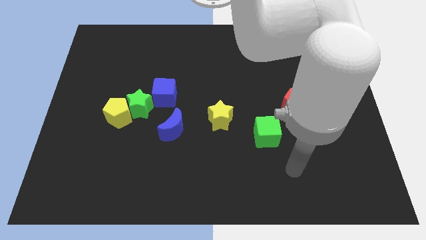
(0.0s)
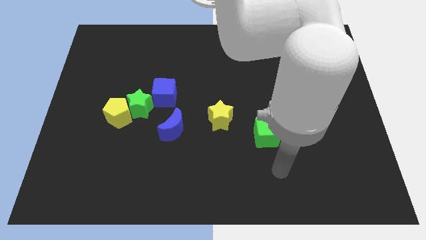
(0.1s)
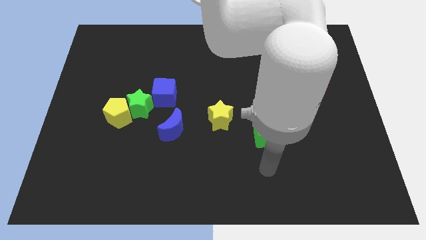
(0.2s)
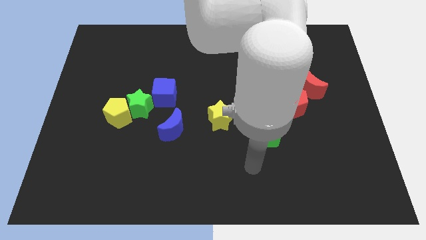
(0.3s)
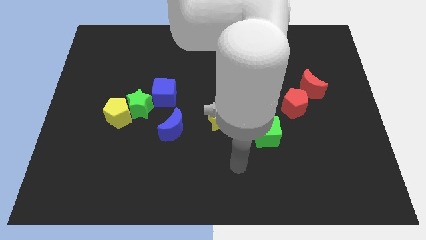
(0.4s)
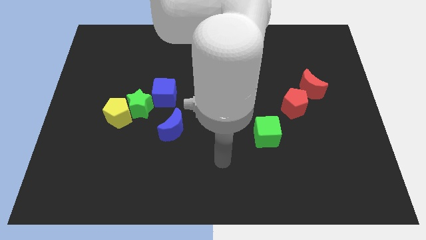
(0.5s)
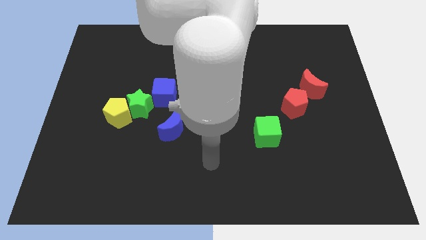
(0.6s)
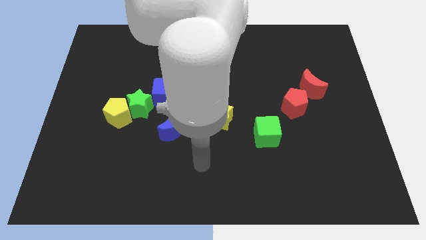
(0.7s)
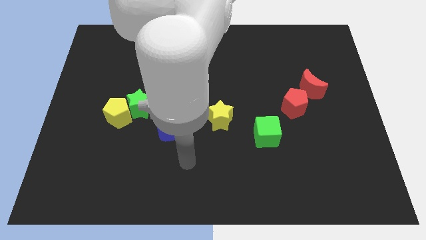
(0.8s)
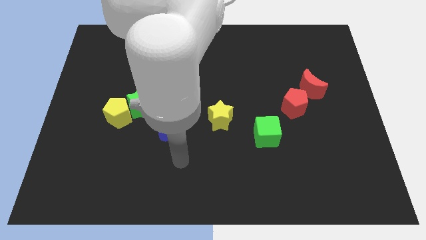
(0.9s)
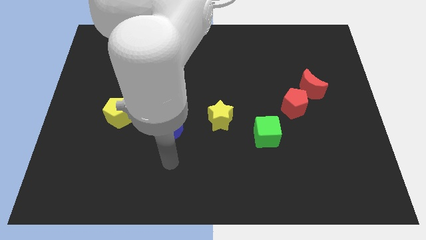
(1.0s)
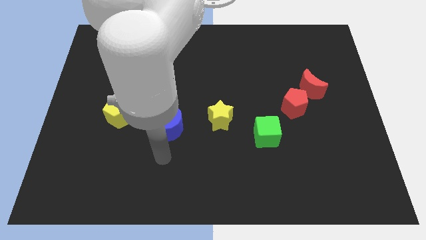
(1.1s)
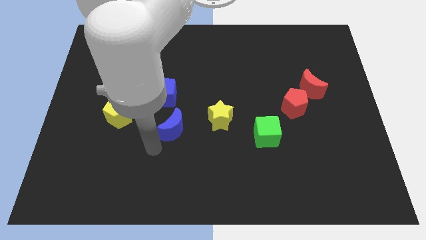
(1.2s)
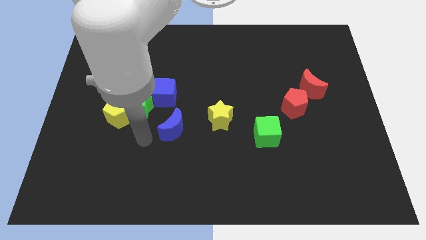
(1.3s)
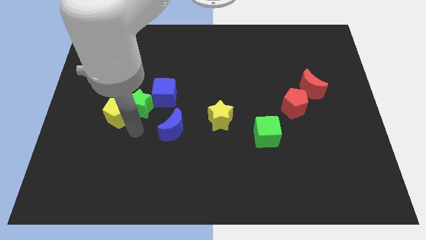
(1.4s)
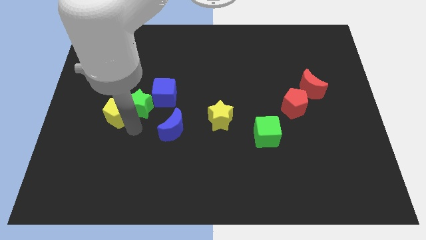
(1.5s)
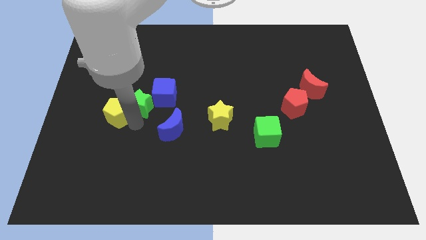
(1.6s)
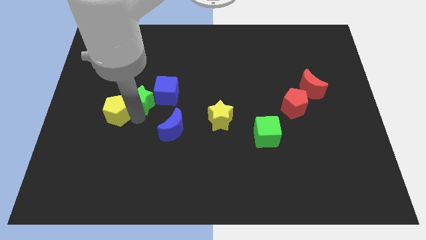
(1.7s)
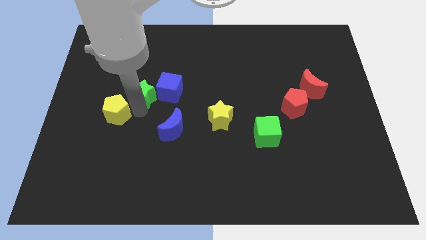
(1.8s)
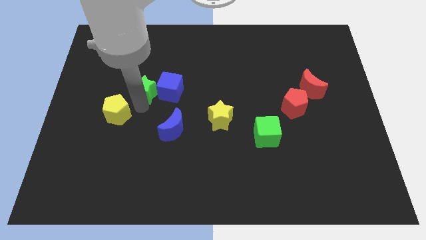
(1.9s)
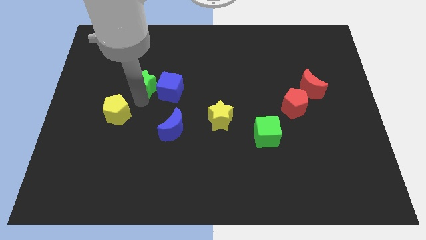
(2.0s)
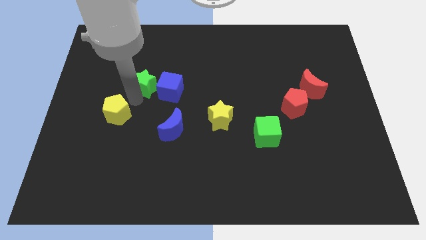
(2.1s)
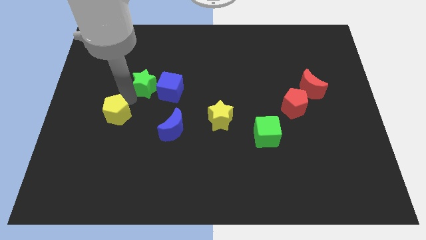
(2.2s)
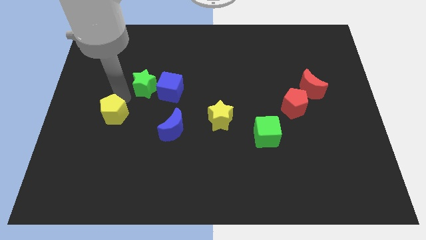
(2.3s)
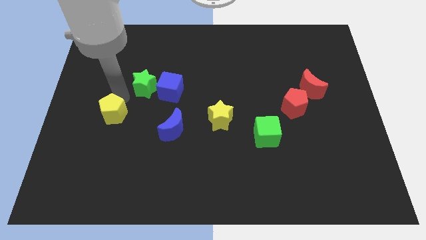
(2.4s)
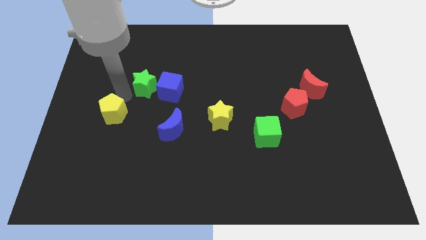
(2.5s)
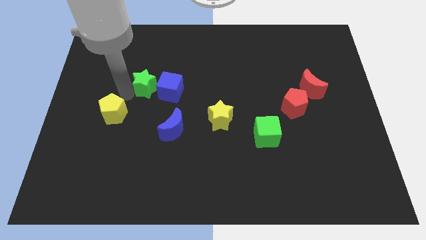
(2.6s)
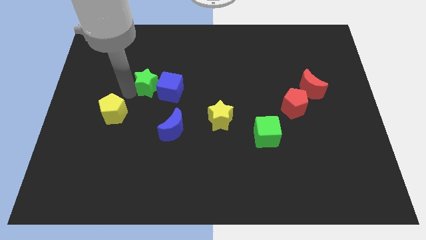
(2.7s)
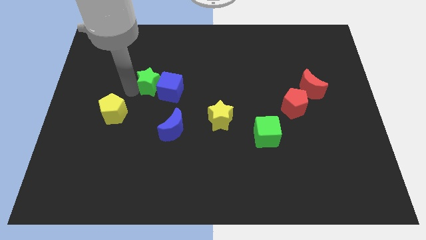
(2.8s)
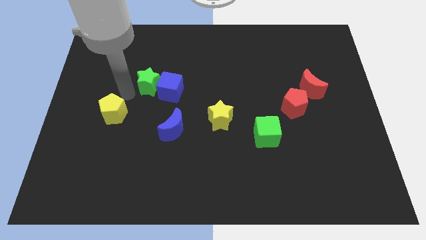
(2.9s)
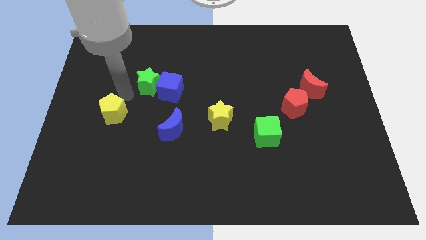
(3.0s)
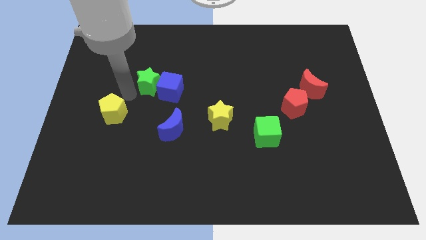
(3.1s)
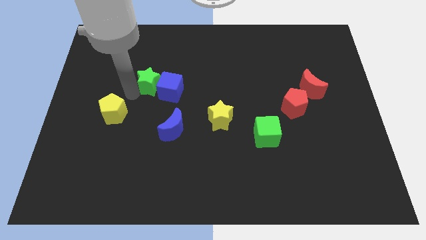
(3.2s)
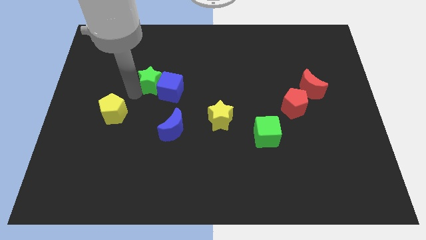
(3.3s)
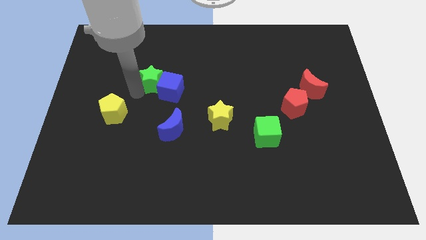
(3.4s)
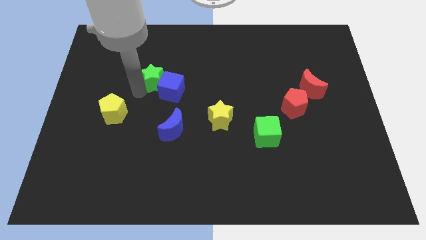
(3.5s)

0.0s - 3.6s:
slide the green star a little up and to the right diagonally

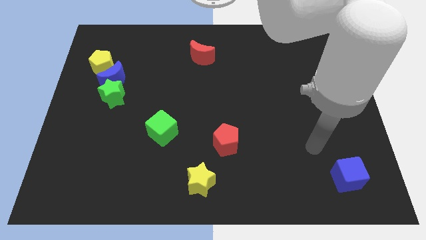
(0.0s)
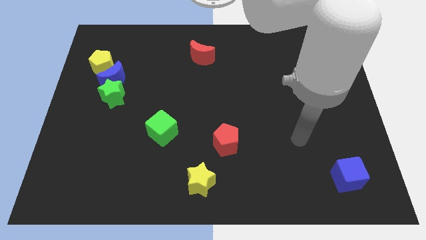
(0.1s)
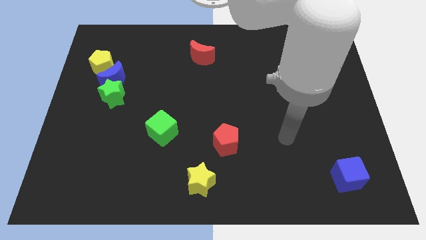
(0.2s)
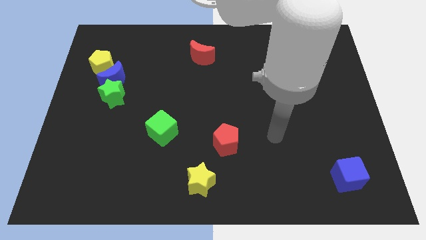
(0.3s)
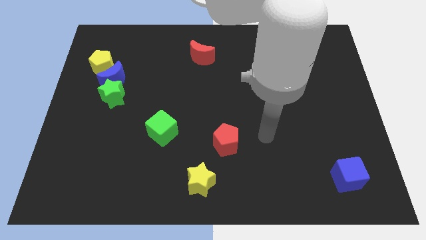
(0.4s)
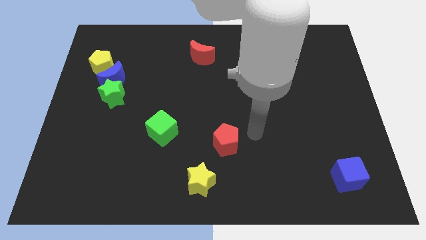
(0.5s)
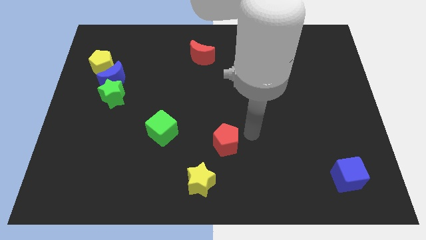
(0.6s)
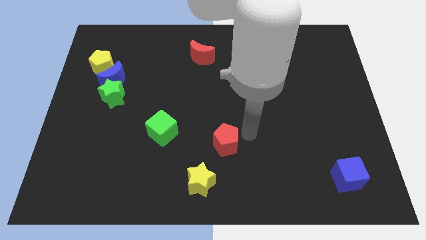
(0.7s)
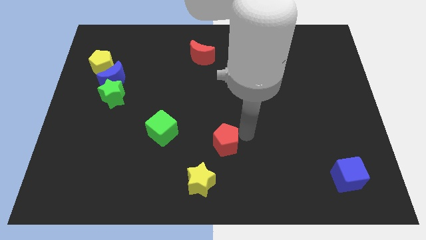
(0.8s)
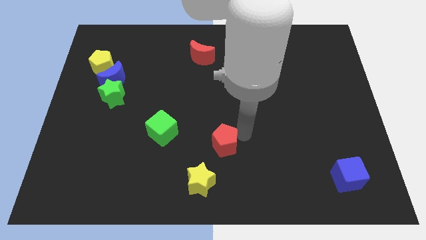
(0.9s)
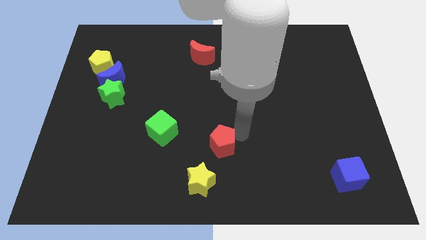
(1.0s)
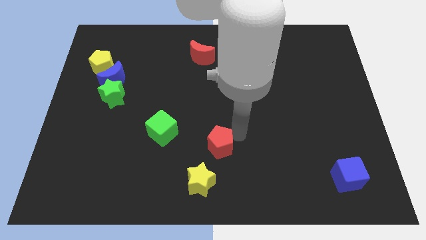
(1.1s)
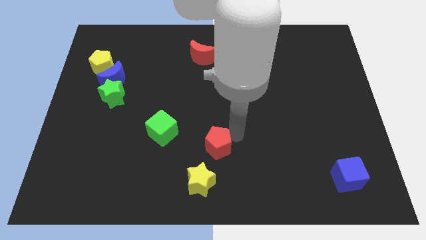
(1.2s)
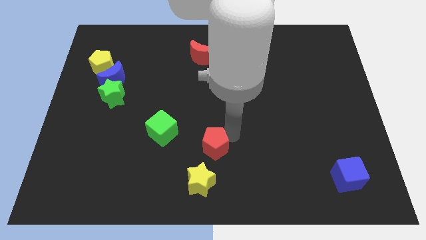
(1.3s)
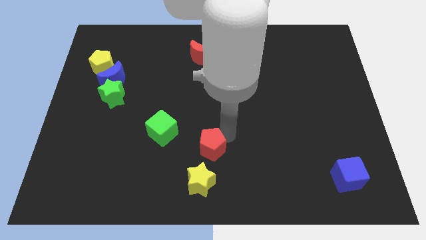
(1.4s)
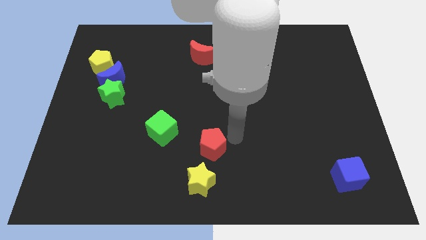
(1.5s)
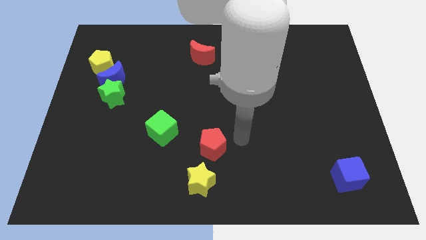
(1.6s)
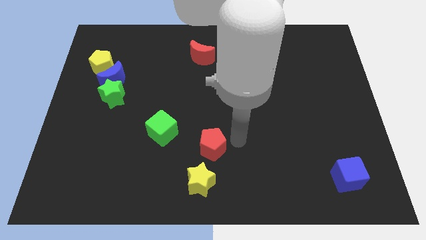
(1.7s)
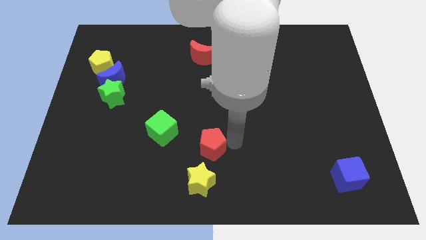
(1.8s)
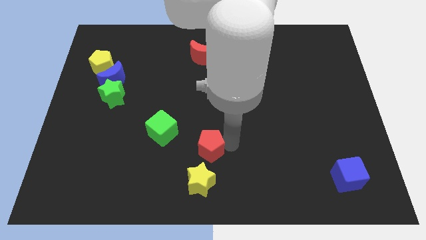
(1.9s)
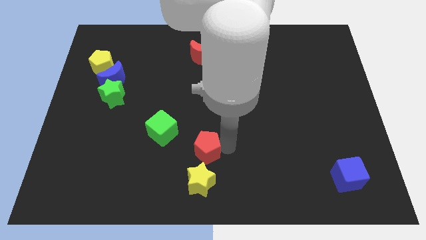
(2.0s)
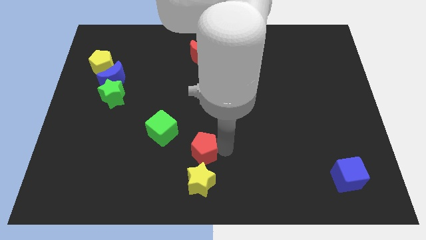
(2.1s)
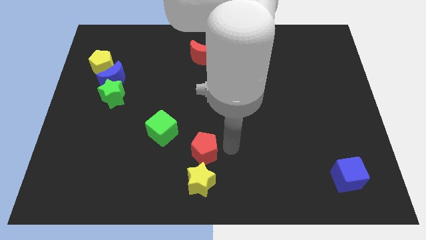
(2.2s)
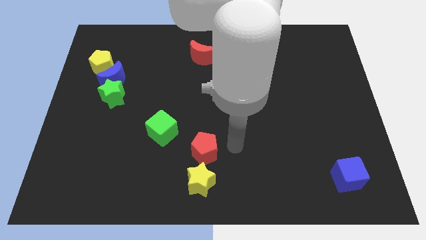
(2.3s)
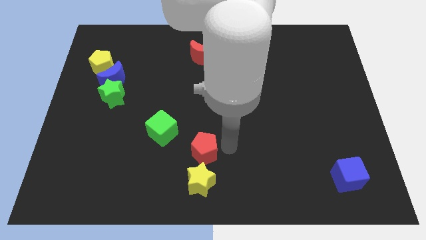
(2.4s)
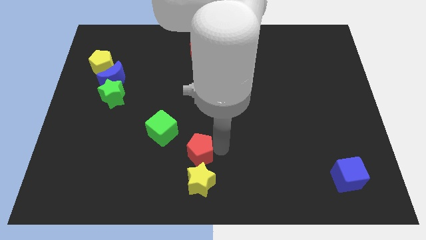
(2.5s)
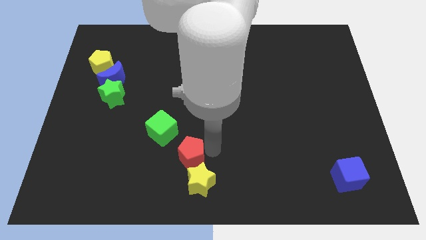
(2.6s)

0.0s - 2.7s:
slightly push the red pentagon to the left

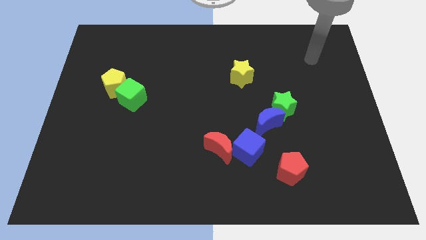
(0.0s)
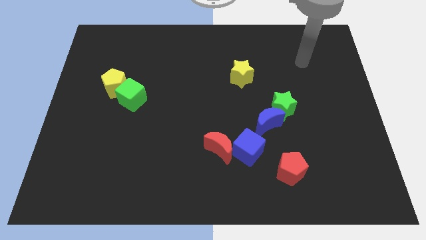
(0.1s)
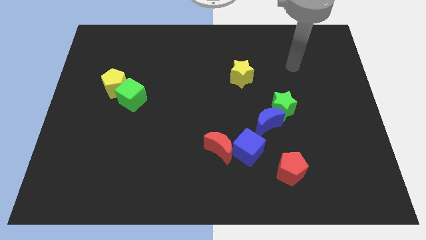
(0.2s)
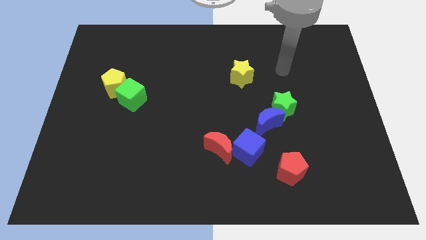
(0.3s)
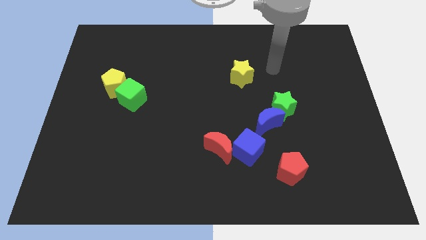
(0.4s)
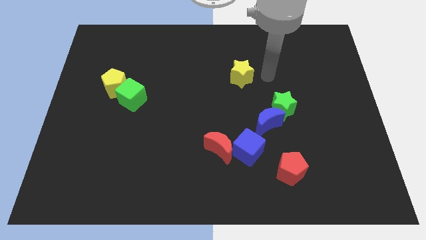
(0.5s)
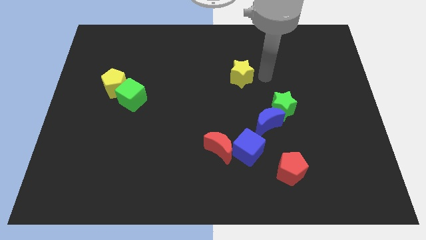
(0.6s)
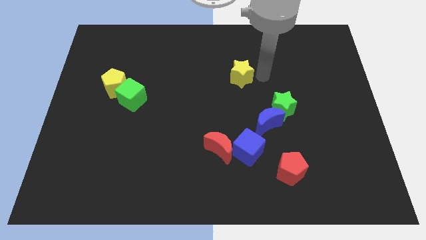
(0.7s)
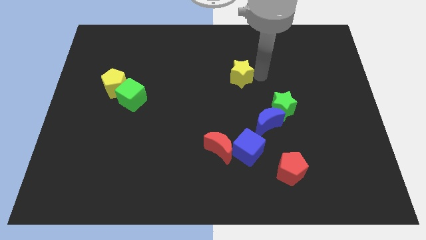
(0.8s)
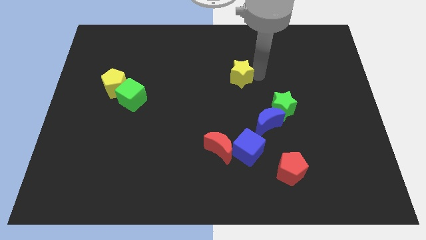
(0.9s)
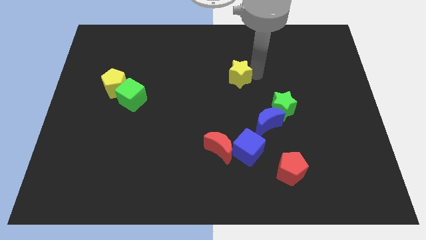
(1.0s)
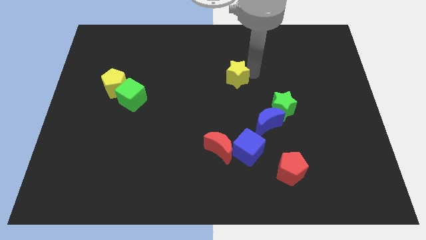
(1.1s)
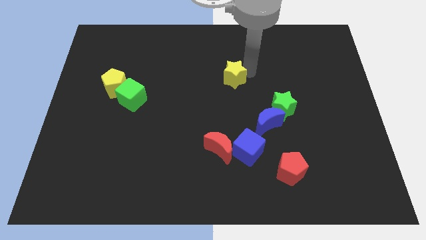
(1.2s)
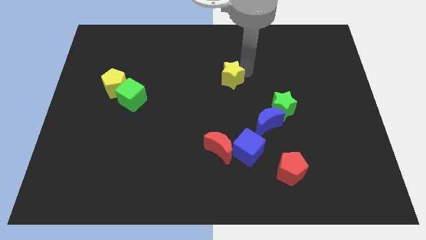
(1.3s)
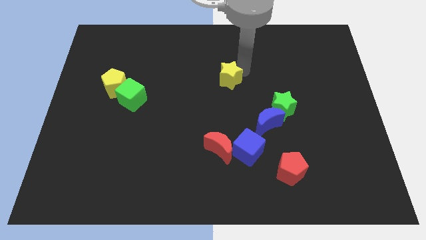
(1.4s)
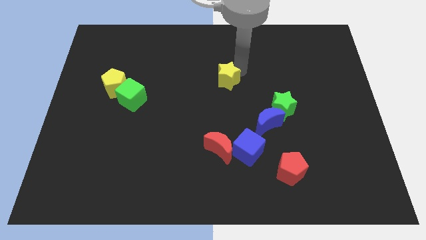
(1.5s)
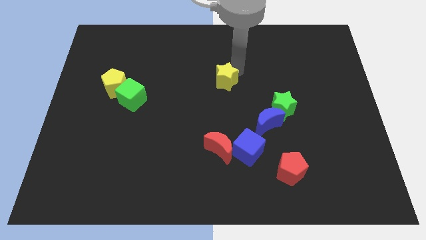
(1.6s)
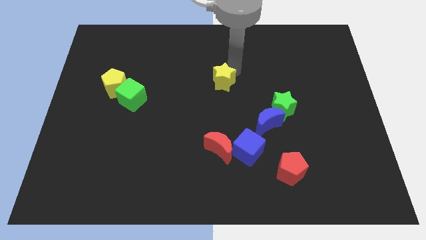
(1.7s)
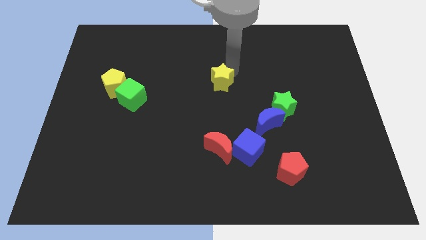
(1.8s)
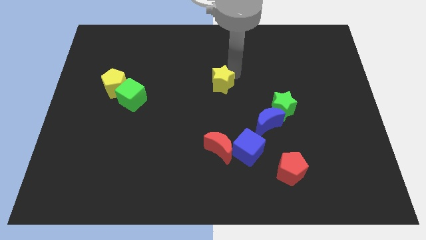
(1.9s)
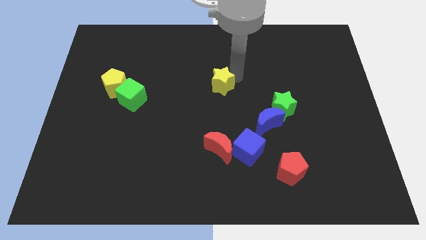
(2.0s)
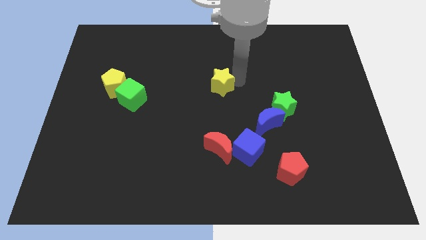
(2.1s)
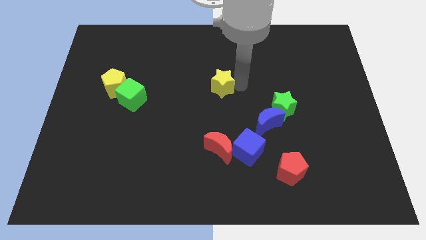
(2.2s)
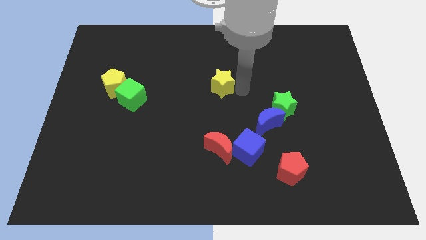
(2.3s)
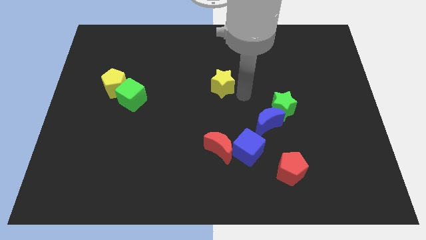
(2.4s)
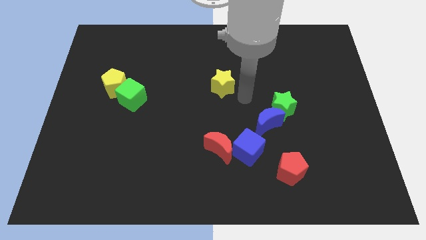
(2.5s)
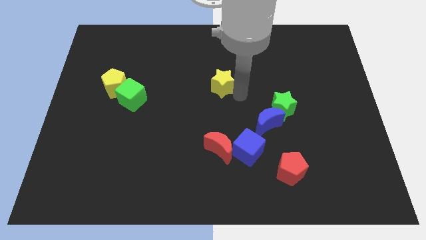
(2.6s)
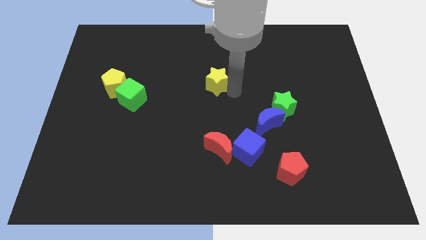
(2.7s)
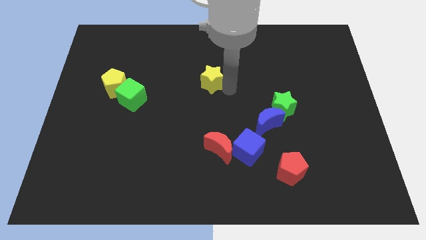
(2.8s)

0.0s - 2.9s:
slightly move the yellow star left
